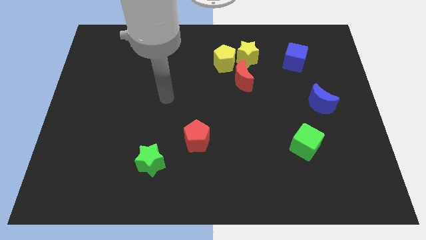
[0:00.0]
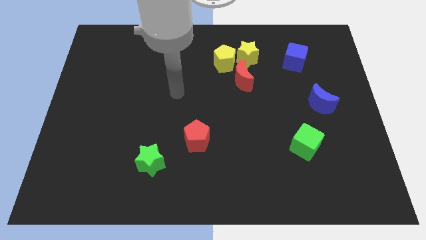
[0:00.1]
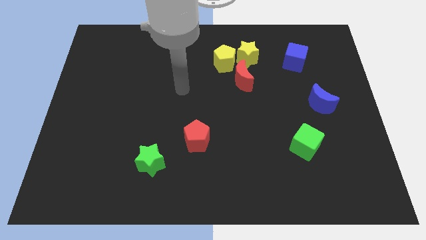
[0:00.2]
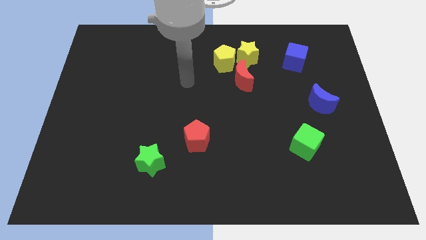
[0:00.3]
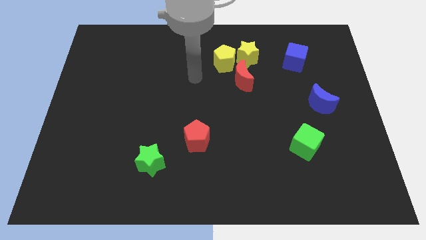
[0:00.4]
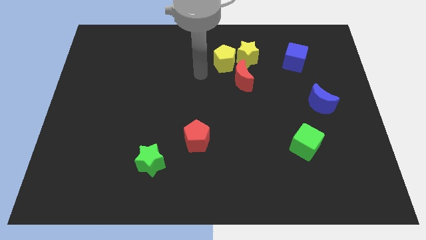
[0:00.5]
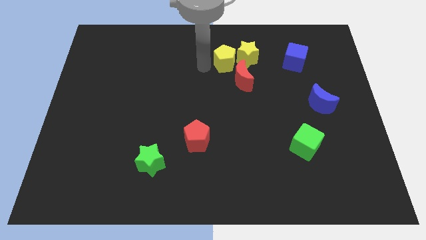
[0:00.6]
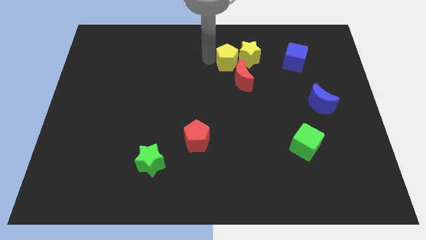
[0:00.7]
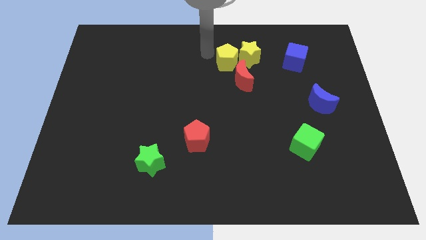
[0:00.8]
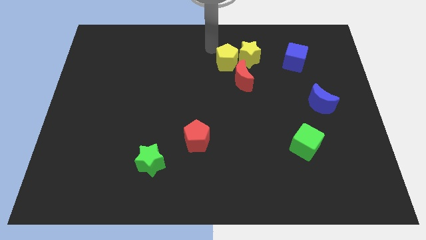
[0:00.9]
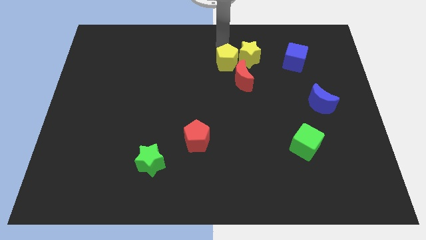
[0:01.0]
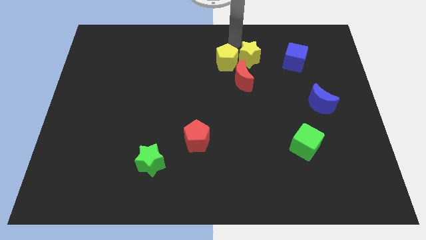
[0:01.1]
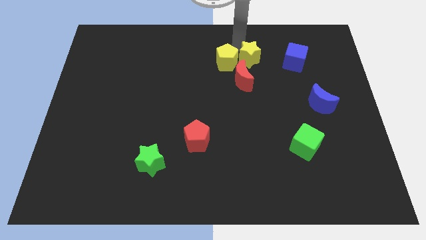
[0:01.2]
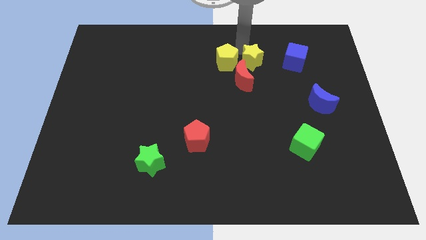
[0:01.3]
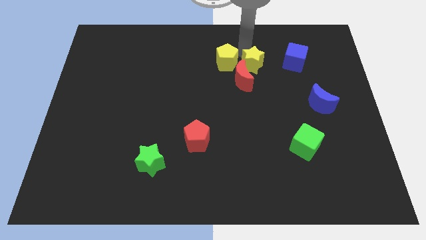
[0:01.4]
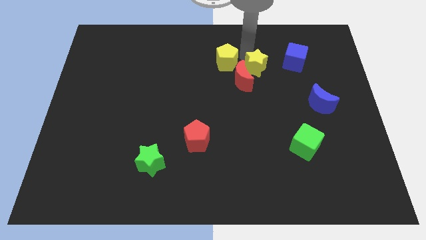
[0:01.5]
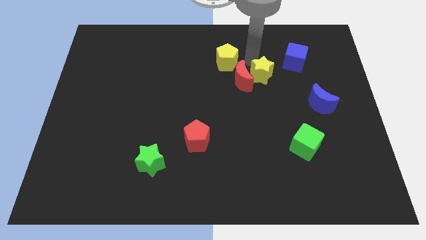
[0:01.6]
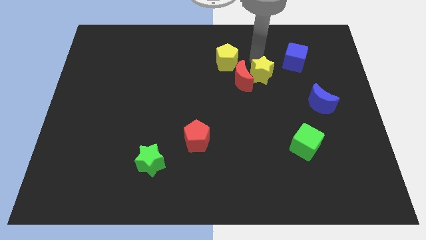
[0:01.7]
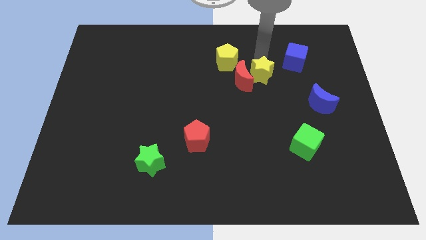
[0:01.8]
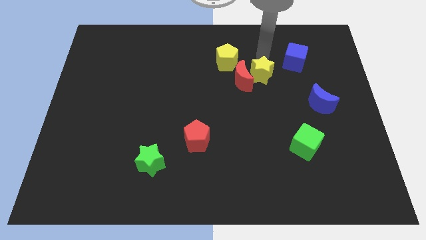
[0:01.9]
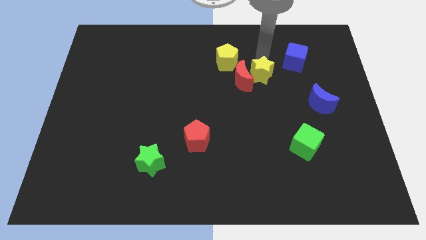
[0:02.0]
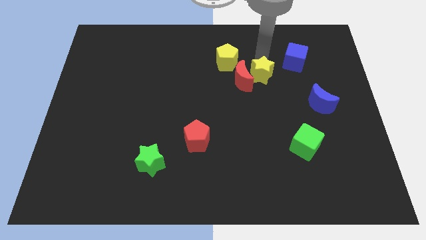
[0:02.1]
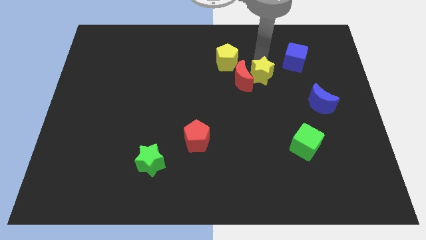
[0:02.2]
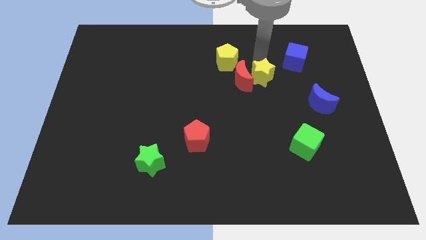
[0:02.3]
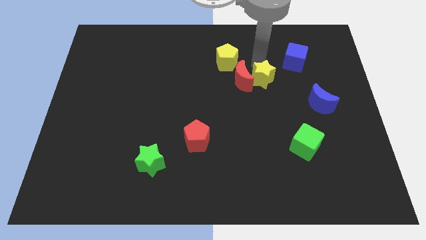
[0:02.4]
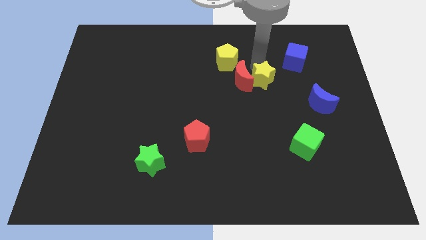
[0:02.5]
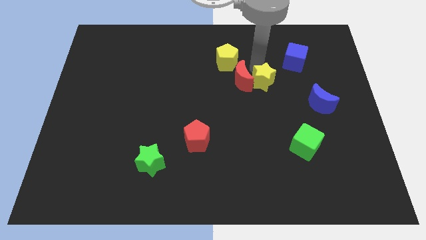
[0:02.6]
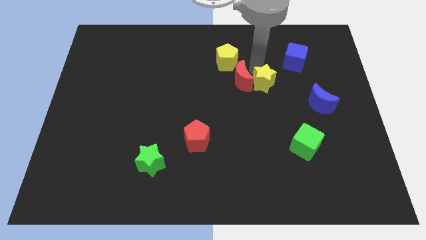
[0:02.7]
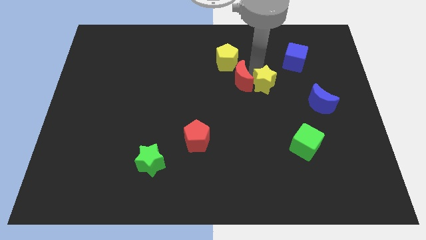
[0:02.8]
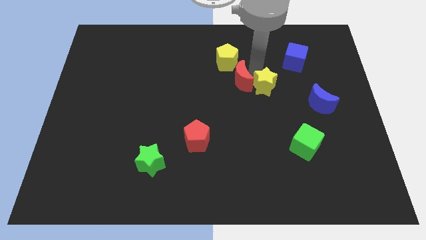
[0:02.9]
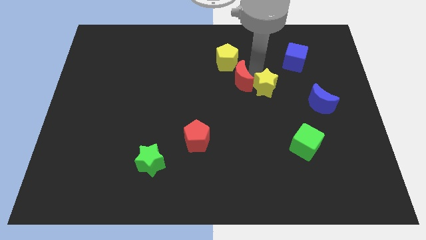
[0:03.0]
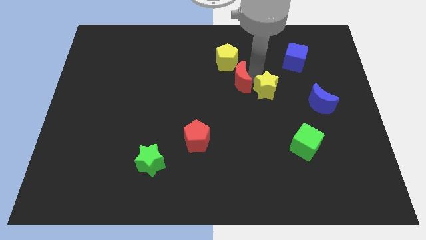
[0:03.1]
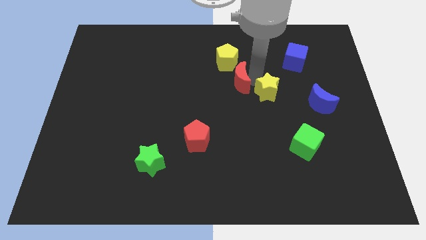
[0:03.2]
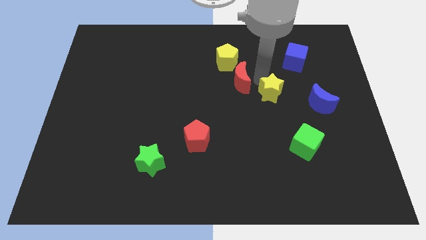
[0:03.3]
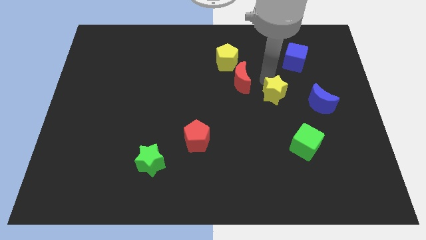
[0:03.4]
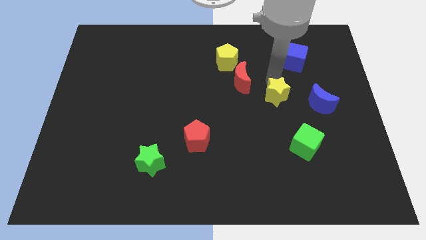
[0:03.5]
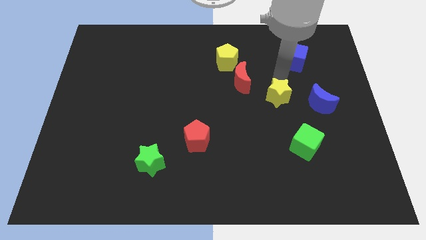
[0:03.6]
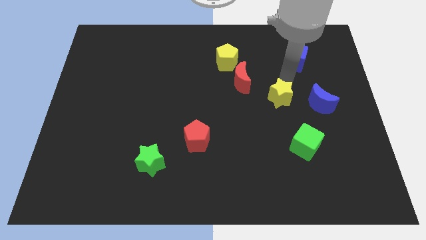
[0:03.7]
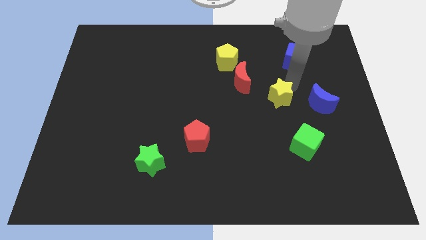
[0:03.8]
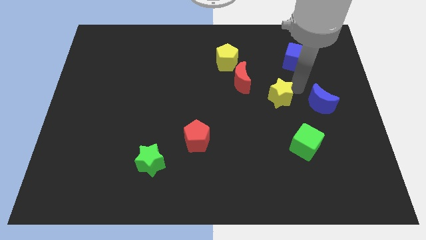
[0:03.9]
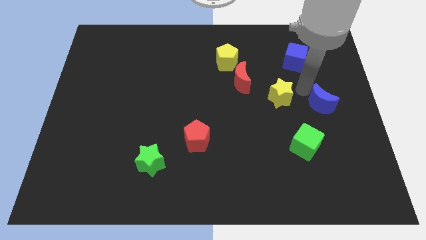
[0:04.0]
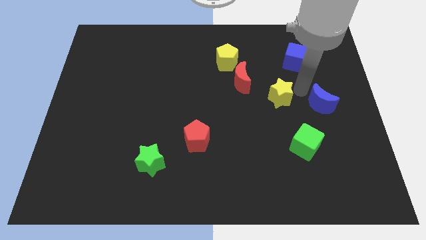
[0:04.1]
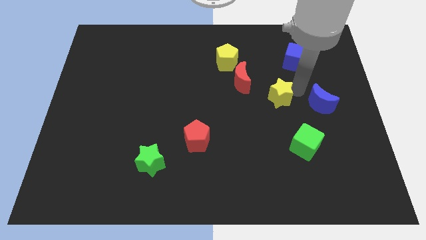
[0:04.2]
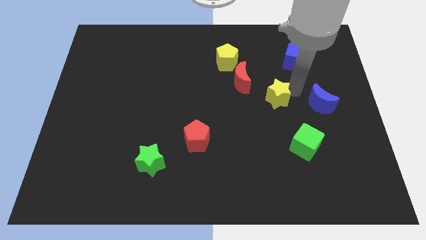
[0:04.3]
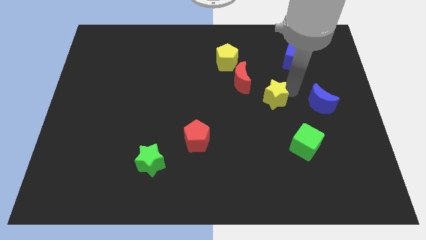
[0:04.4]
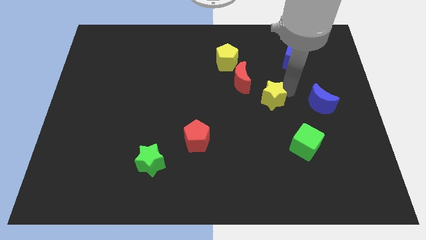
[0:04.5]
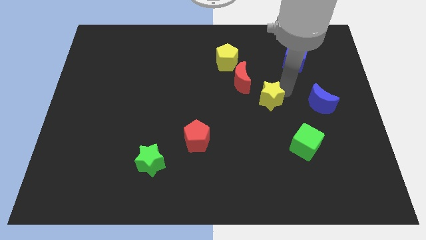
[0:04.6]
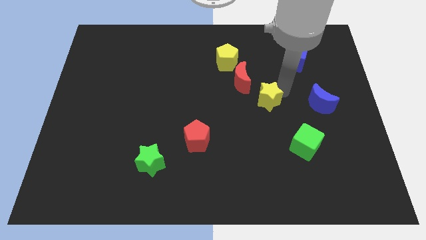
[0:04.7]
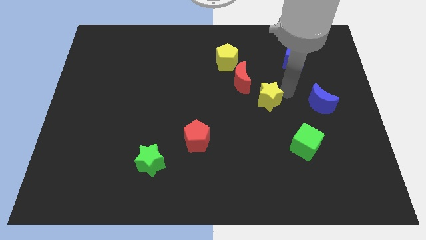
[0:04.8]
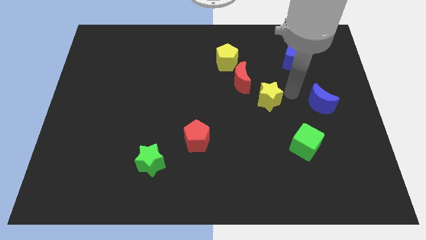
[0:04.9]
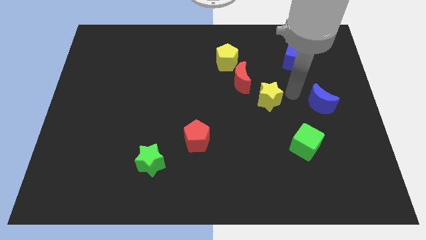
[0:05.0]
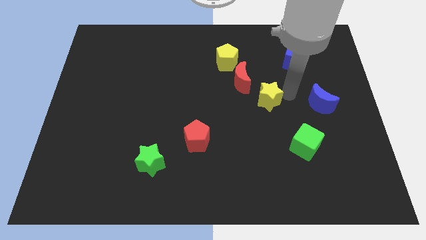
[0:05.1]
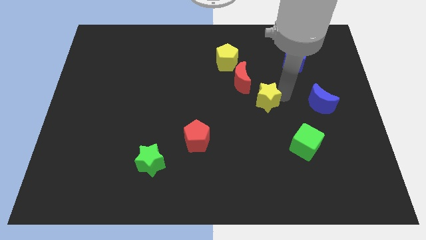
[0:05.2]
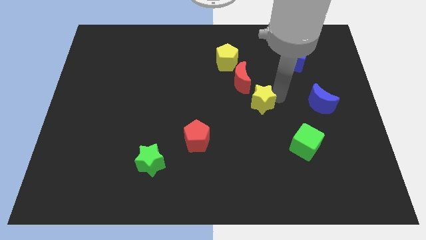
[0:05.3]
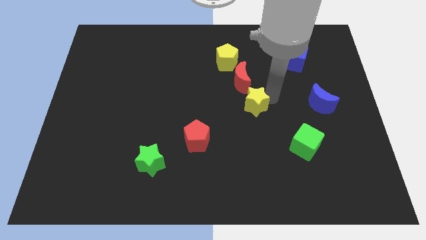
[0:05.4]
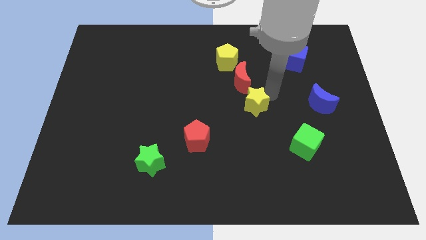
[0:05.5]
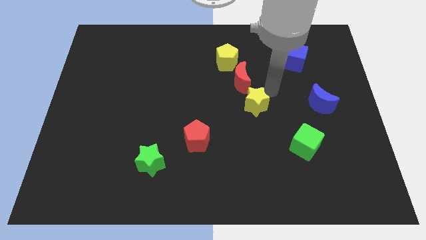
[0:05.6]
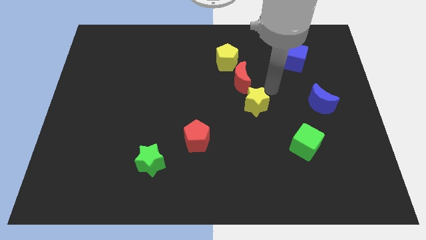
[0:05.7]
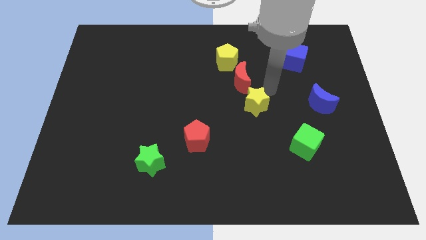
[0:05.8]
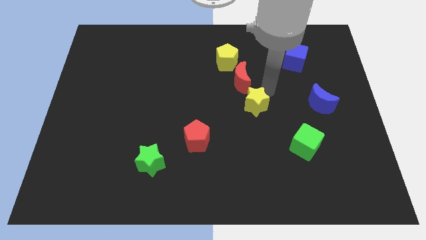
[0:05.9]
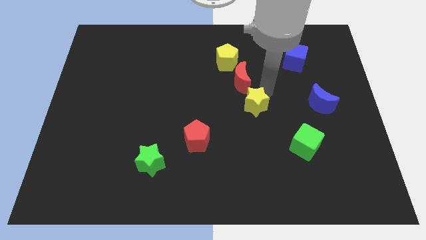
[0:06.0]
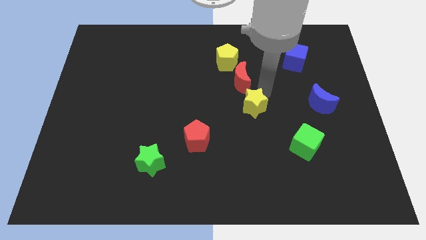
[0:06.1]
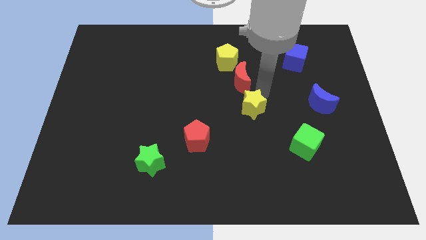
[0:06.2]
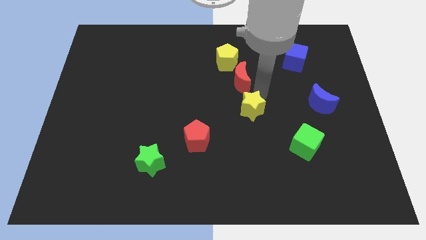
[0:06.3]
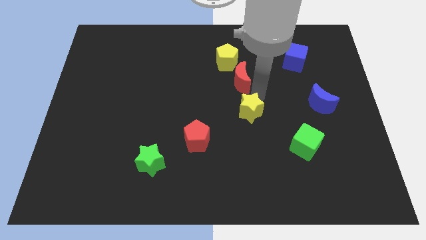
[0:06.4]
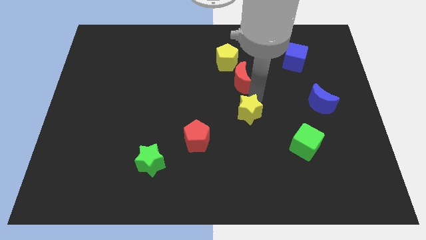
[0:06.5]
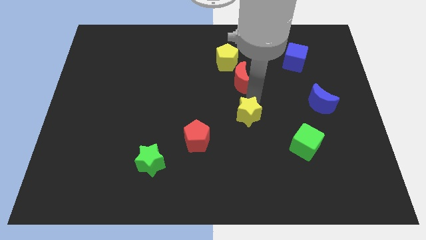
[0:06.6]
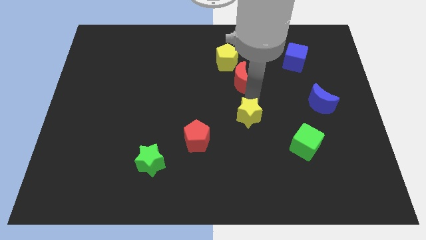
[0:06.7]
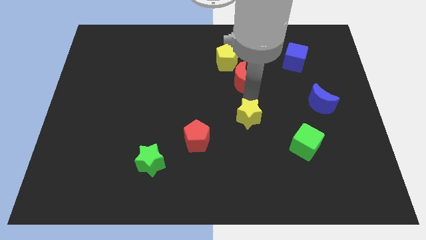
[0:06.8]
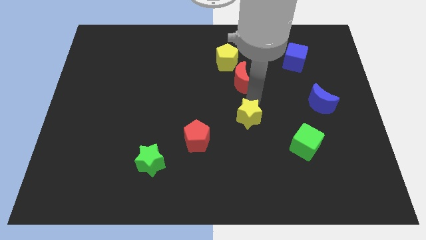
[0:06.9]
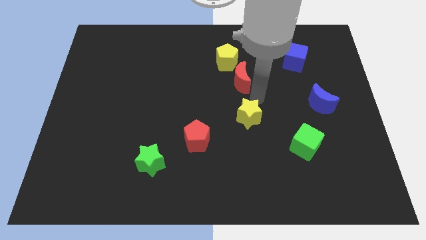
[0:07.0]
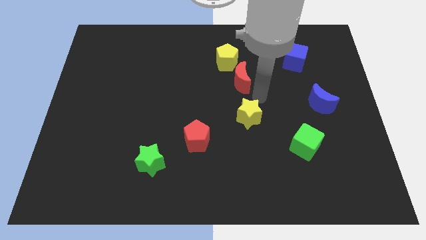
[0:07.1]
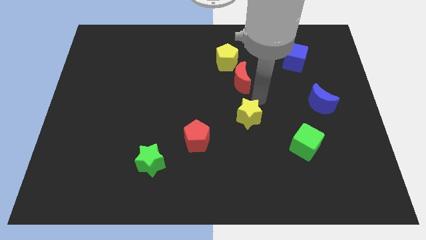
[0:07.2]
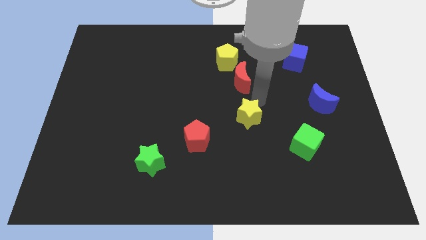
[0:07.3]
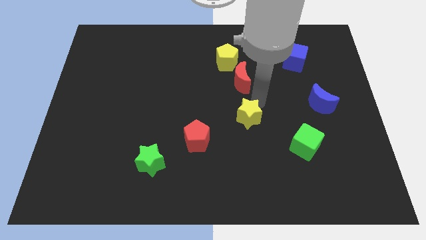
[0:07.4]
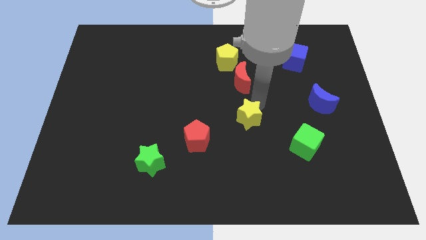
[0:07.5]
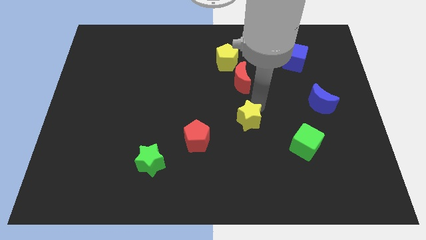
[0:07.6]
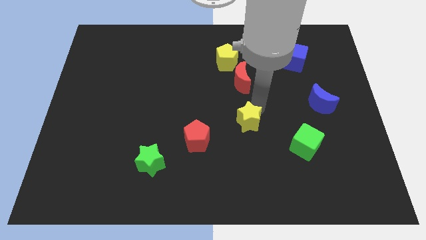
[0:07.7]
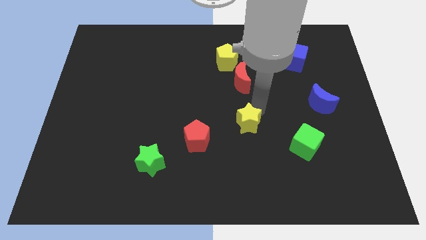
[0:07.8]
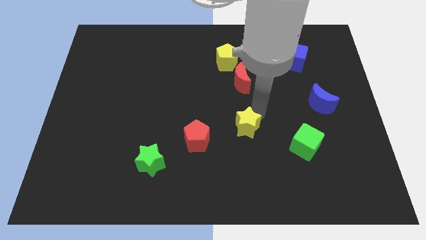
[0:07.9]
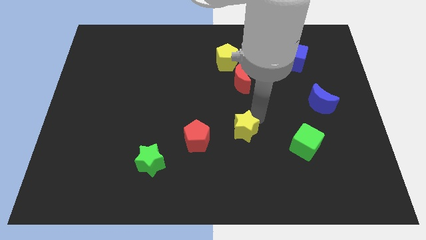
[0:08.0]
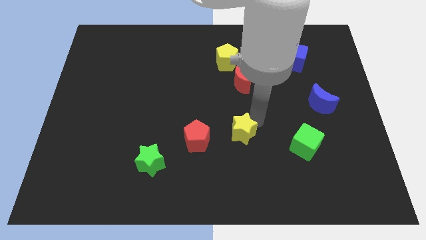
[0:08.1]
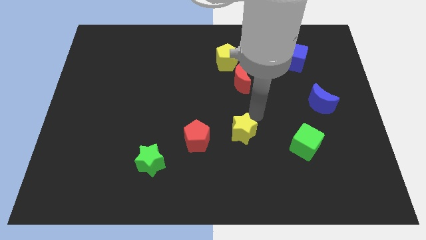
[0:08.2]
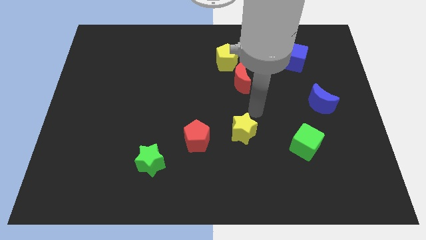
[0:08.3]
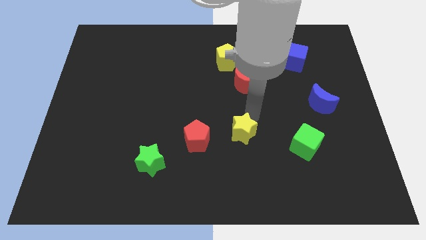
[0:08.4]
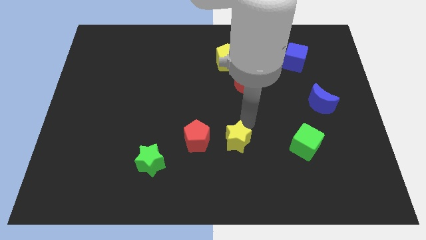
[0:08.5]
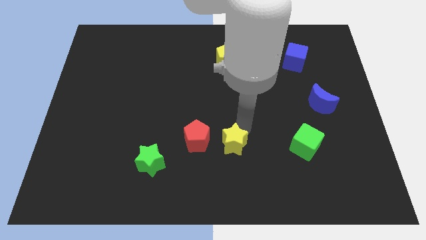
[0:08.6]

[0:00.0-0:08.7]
push the yellow star diagonally down and to the right of the red pentagon

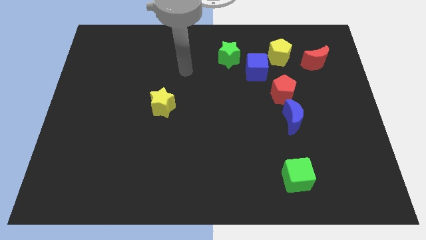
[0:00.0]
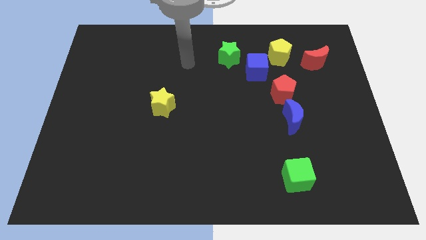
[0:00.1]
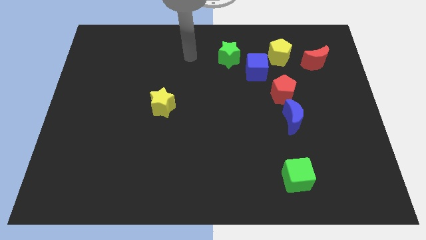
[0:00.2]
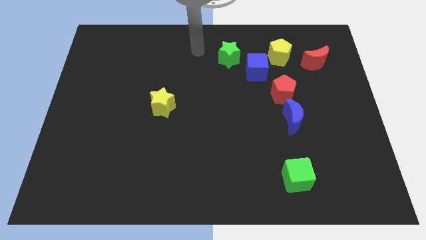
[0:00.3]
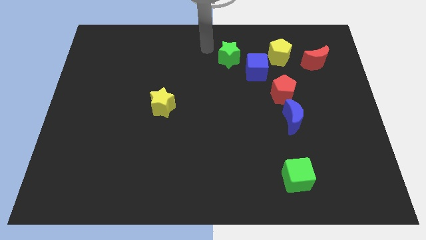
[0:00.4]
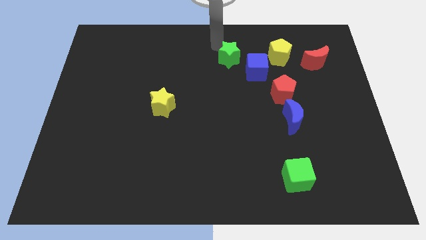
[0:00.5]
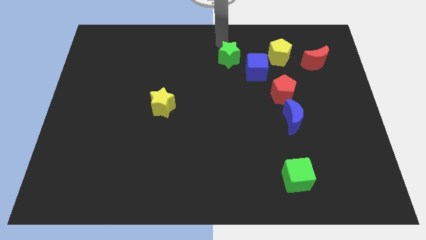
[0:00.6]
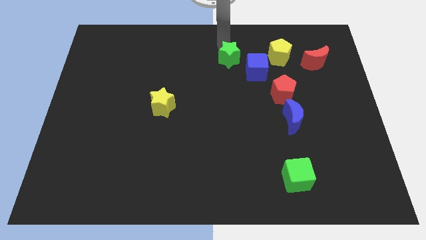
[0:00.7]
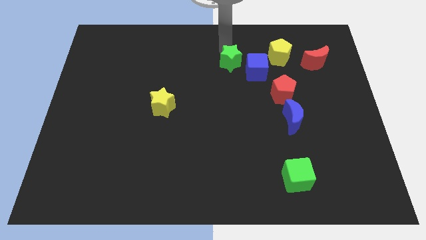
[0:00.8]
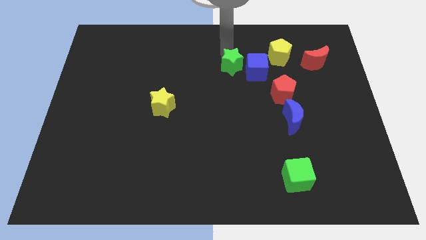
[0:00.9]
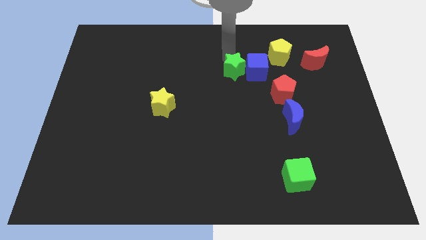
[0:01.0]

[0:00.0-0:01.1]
move the green star to the bottom left of the blue cube
